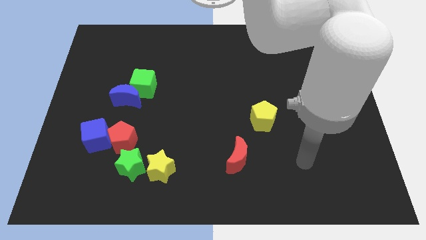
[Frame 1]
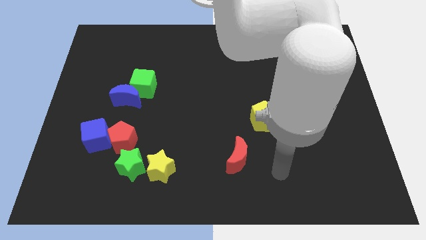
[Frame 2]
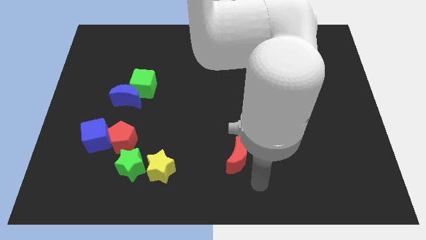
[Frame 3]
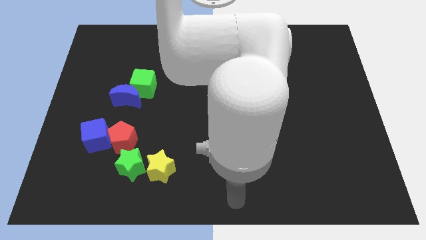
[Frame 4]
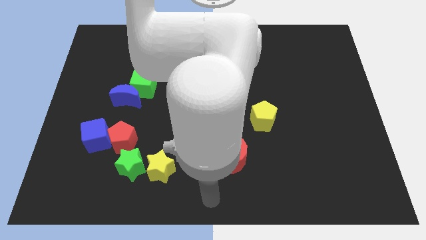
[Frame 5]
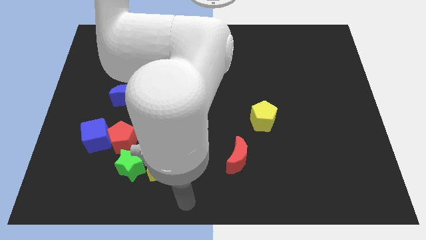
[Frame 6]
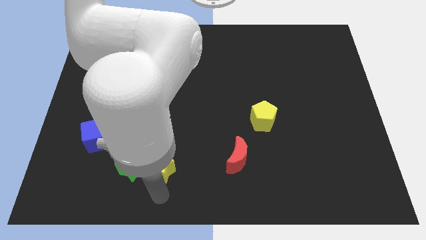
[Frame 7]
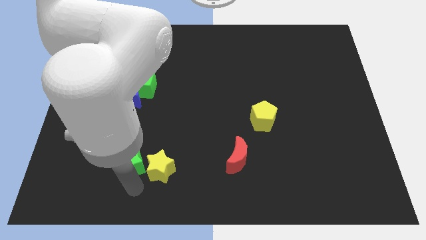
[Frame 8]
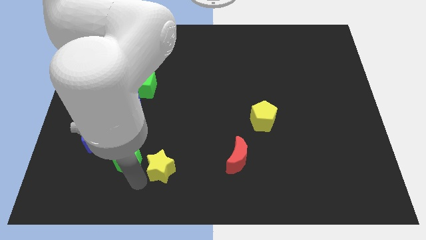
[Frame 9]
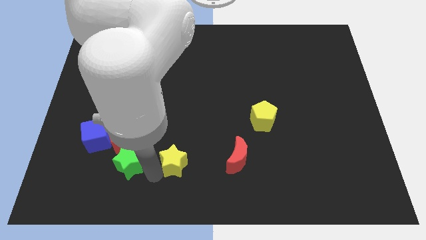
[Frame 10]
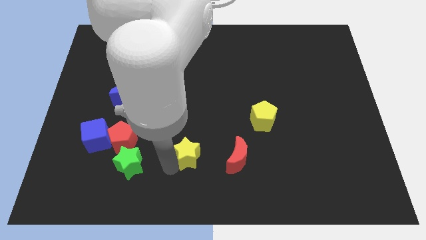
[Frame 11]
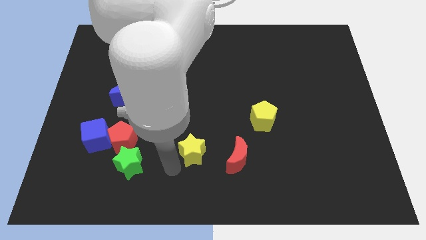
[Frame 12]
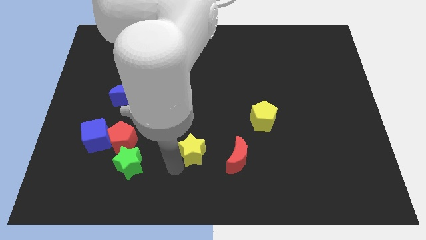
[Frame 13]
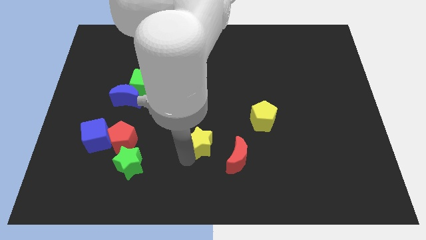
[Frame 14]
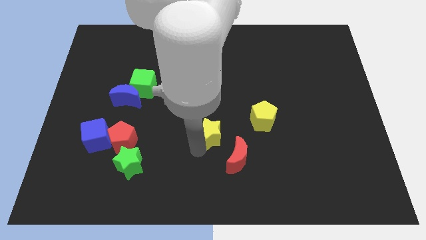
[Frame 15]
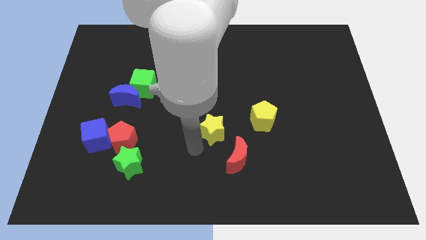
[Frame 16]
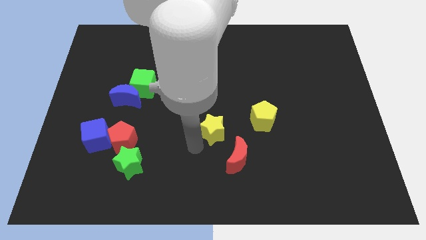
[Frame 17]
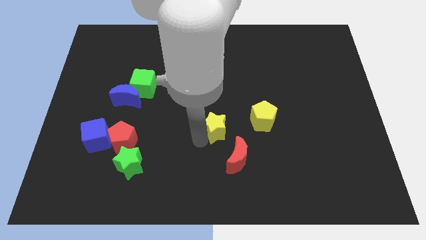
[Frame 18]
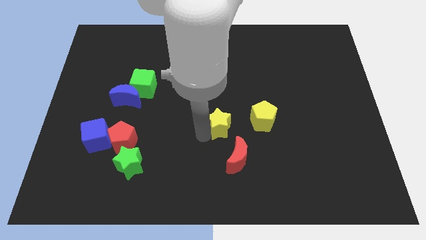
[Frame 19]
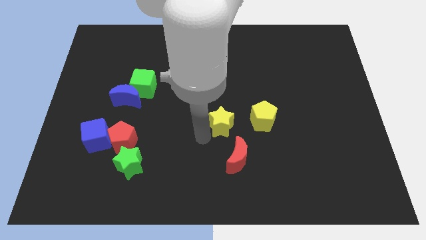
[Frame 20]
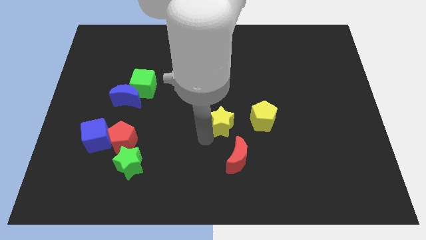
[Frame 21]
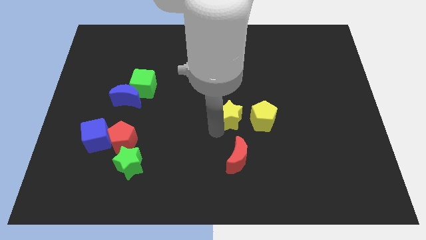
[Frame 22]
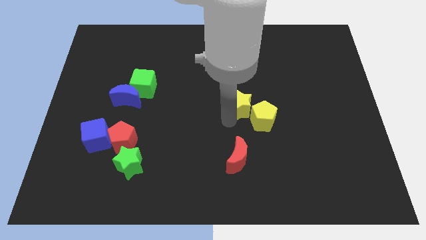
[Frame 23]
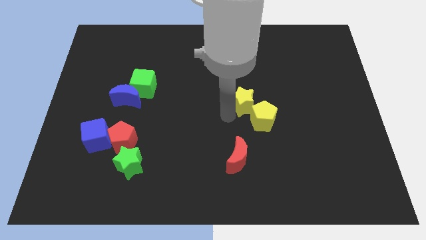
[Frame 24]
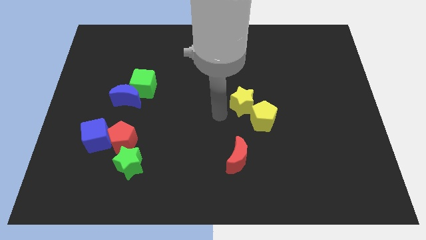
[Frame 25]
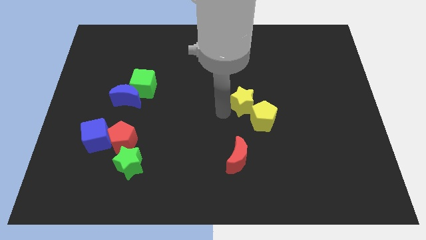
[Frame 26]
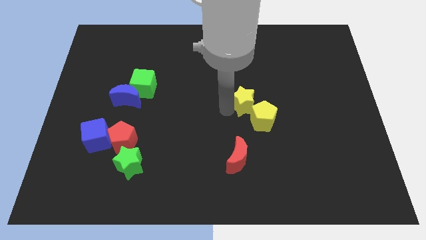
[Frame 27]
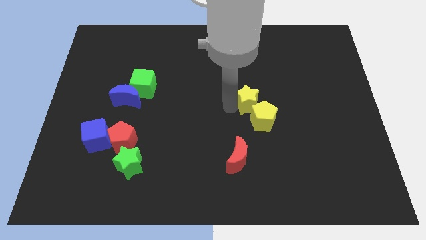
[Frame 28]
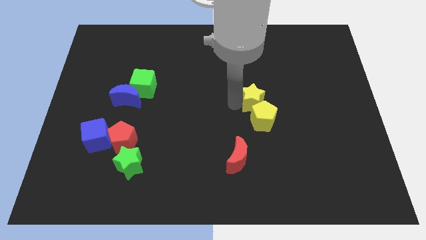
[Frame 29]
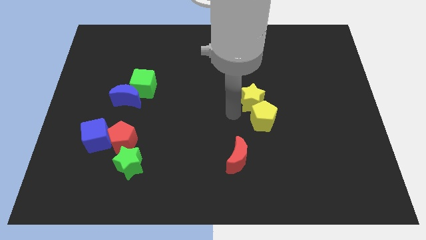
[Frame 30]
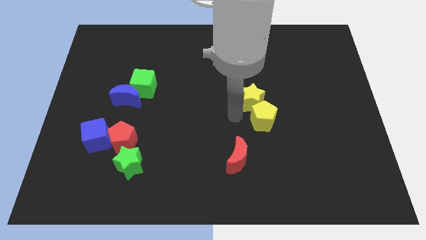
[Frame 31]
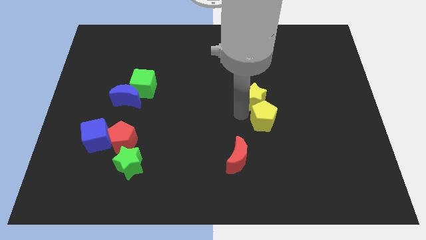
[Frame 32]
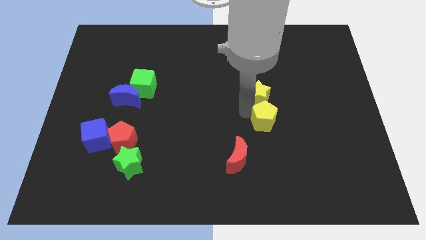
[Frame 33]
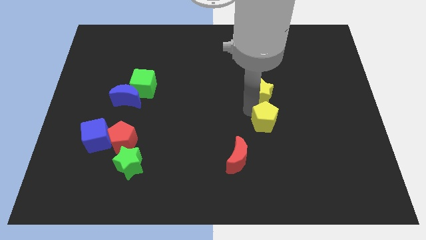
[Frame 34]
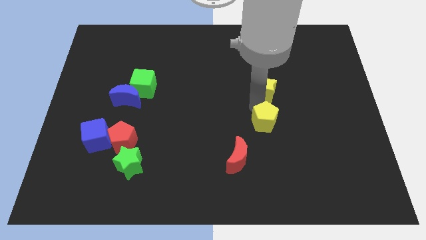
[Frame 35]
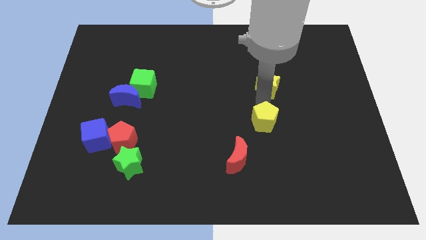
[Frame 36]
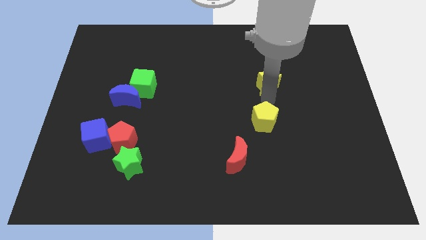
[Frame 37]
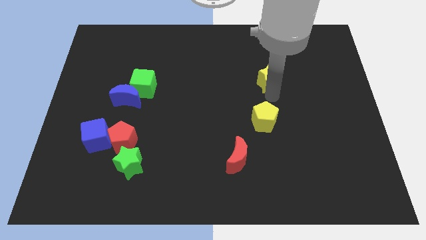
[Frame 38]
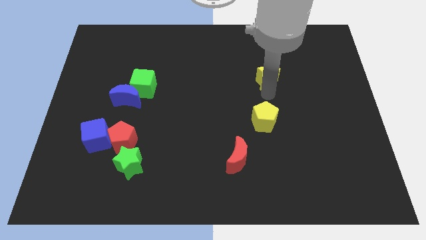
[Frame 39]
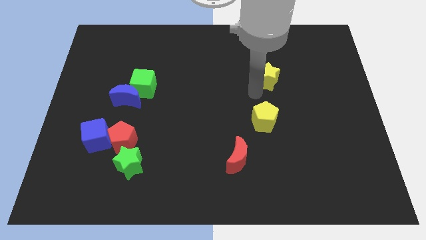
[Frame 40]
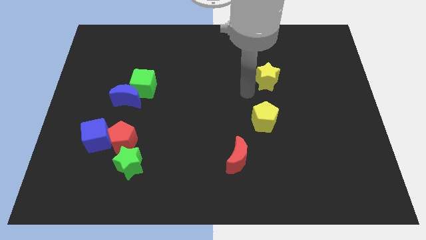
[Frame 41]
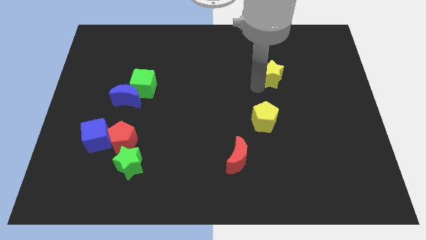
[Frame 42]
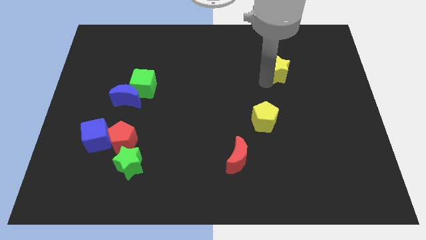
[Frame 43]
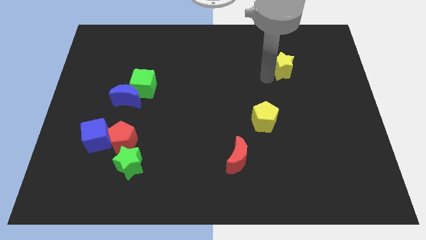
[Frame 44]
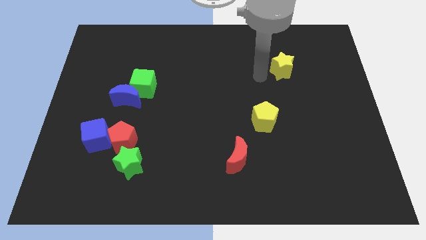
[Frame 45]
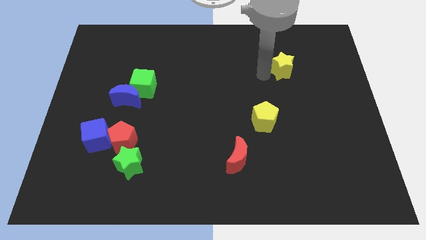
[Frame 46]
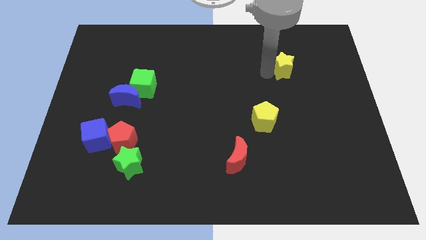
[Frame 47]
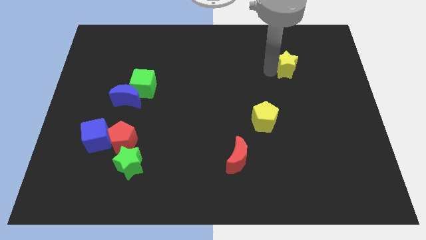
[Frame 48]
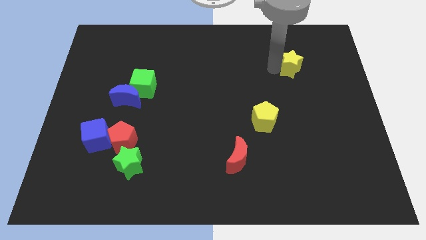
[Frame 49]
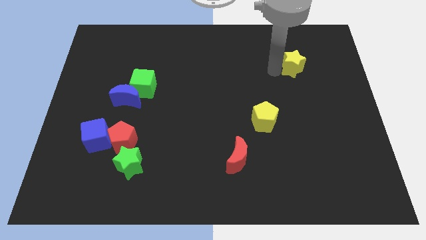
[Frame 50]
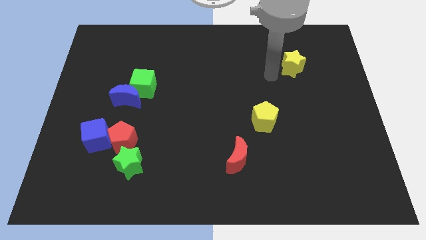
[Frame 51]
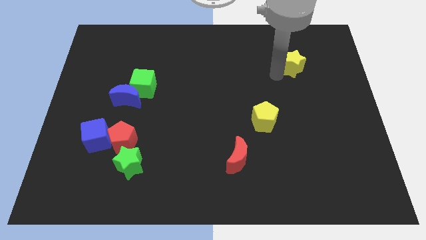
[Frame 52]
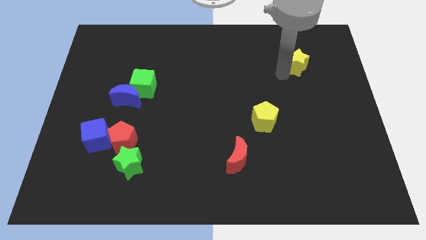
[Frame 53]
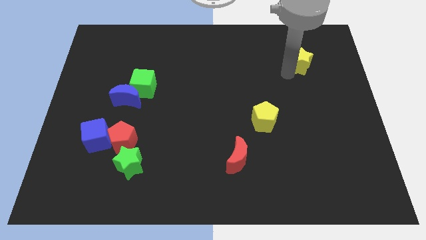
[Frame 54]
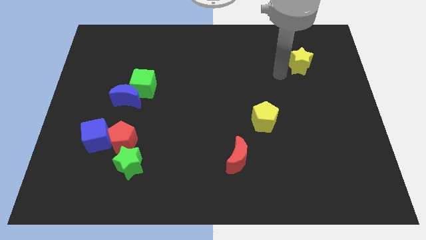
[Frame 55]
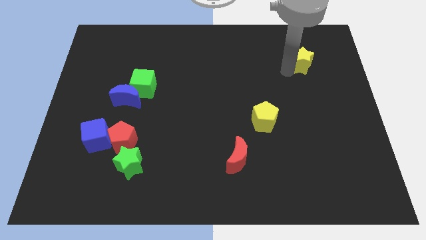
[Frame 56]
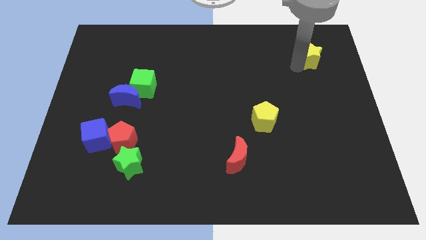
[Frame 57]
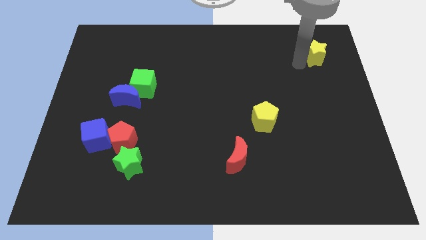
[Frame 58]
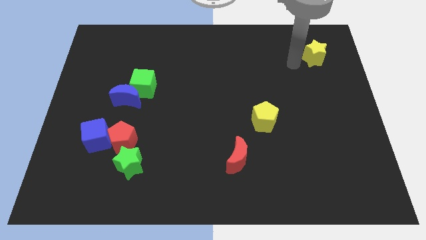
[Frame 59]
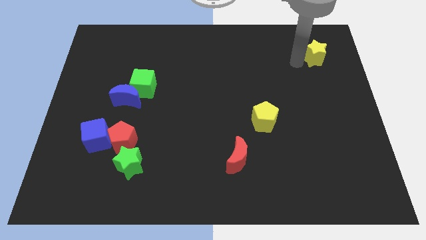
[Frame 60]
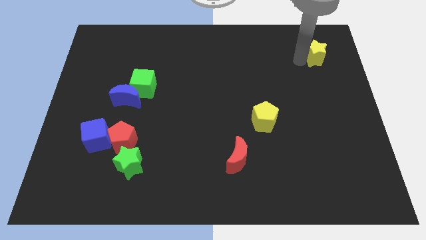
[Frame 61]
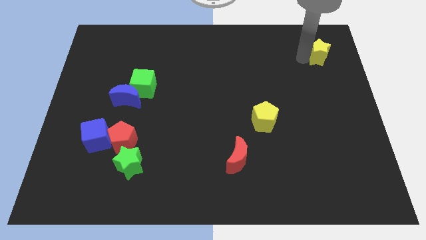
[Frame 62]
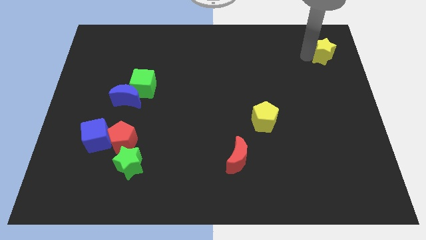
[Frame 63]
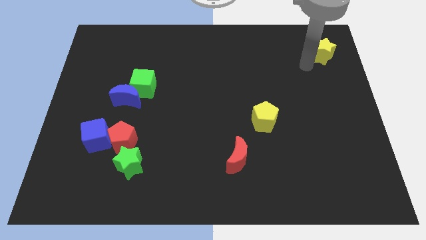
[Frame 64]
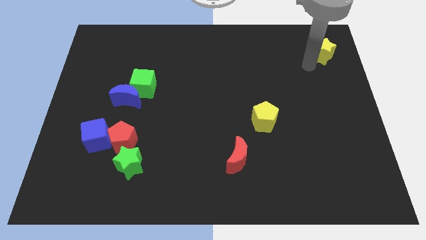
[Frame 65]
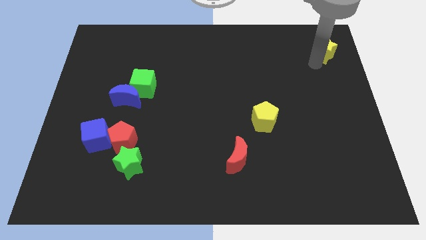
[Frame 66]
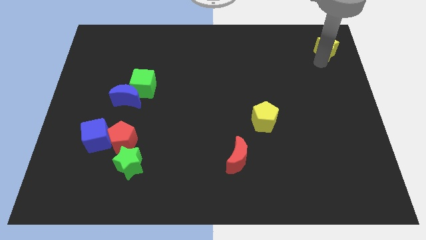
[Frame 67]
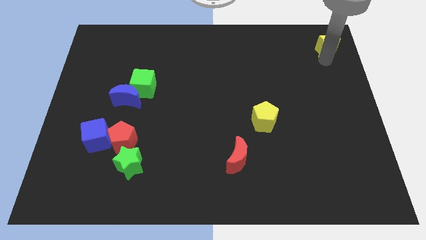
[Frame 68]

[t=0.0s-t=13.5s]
slide the yellow star to the top right corner
